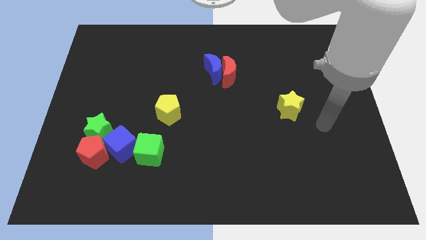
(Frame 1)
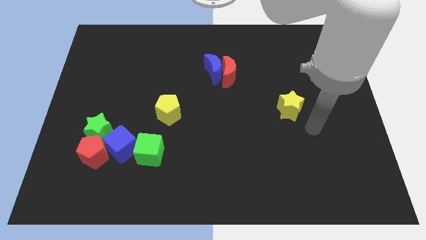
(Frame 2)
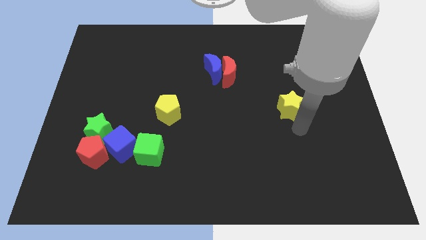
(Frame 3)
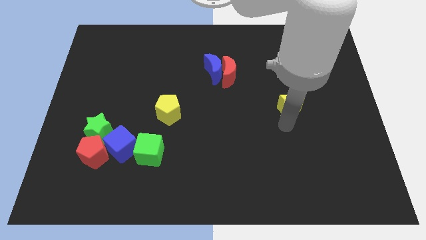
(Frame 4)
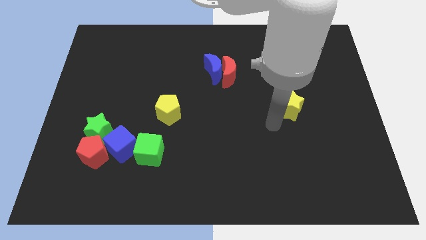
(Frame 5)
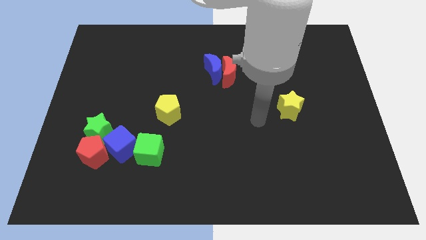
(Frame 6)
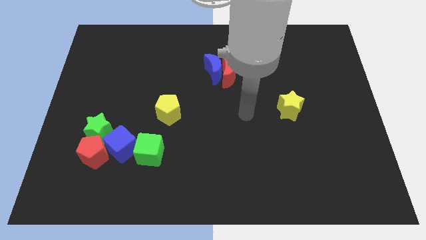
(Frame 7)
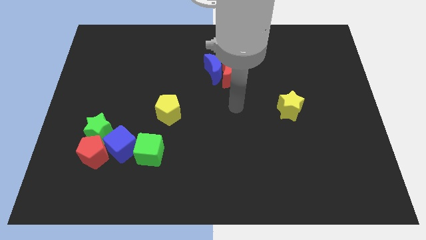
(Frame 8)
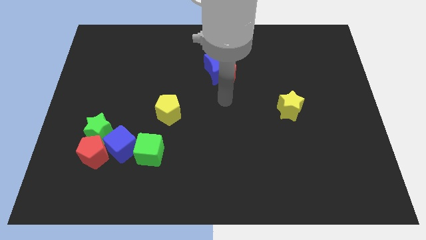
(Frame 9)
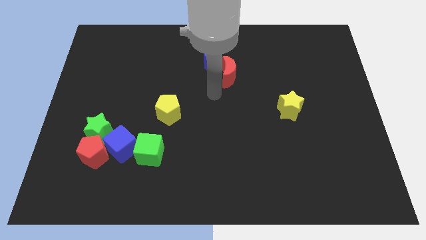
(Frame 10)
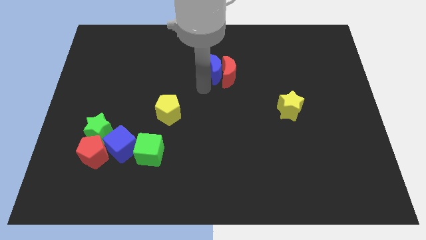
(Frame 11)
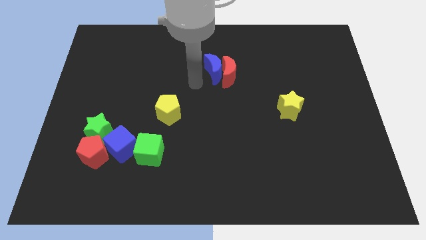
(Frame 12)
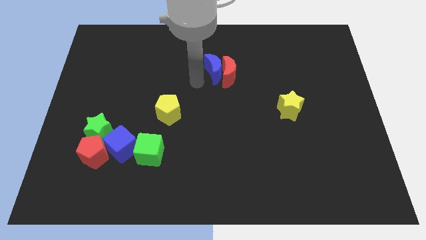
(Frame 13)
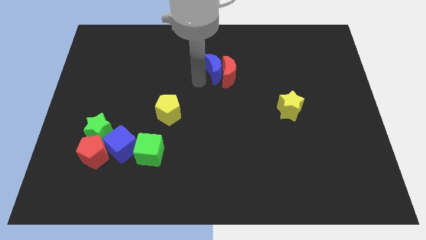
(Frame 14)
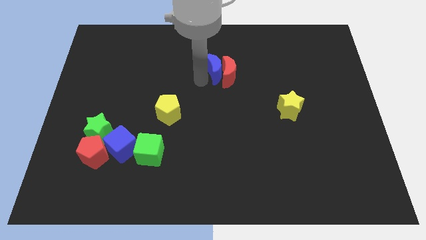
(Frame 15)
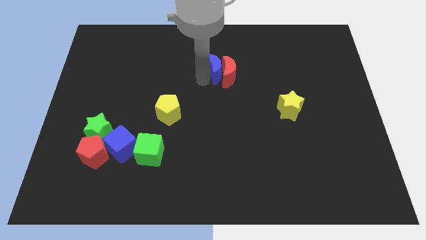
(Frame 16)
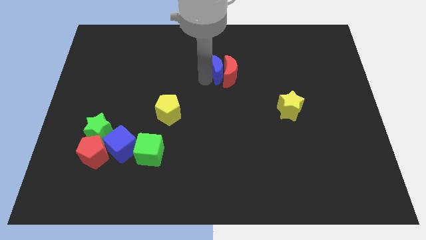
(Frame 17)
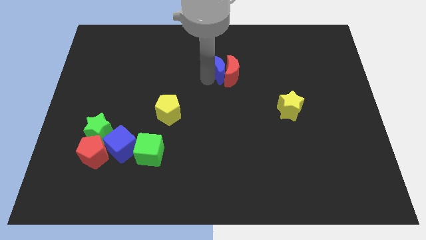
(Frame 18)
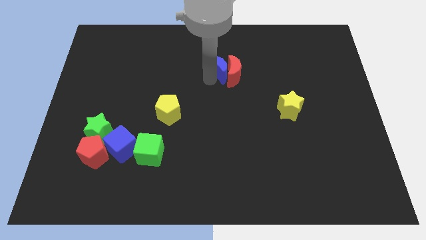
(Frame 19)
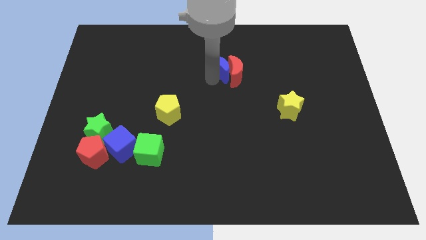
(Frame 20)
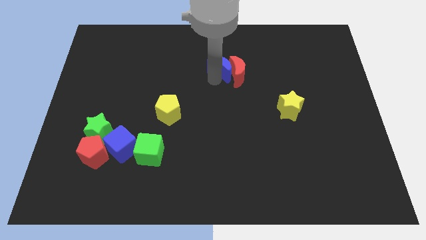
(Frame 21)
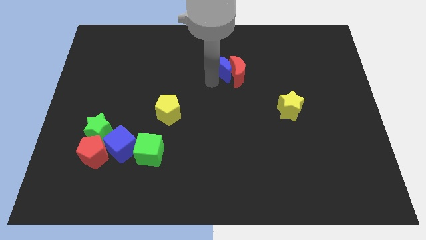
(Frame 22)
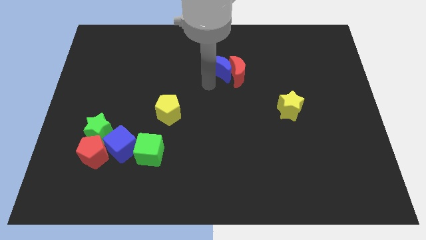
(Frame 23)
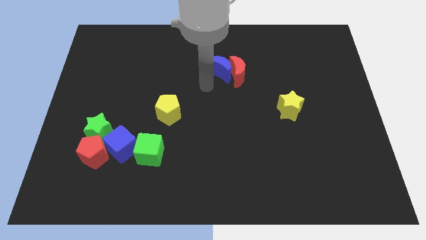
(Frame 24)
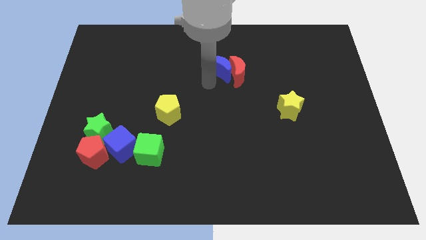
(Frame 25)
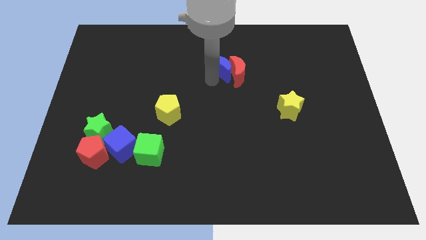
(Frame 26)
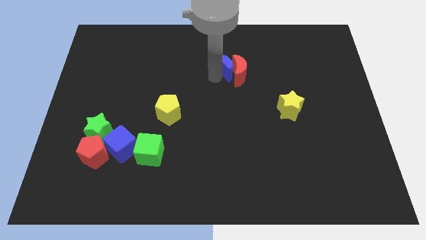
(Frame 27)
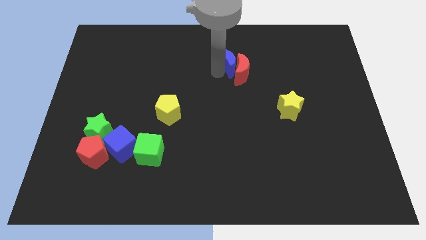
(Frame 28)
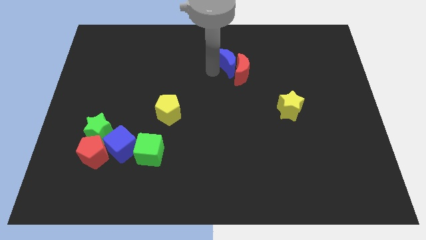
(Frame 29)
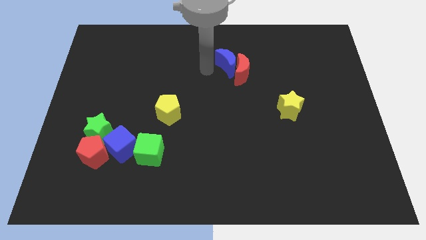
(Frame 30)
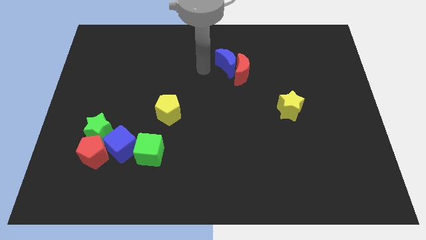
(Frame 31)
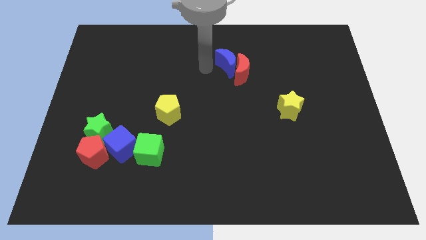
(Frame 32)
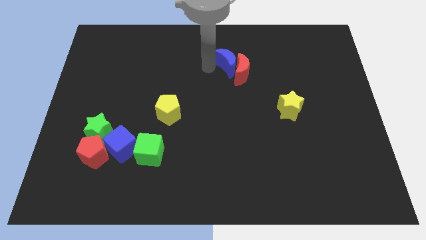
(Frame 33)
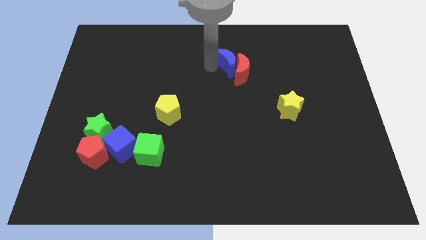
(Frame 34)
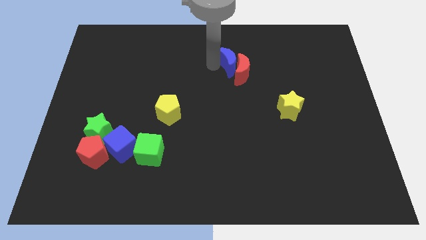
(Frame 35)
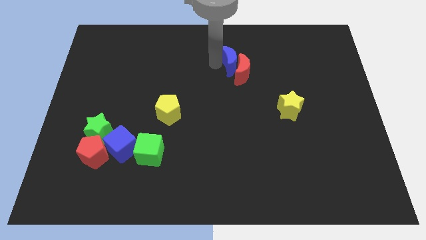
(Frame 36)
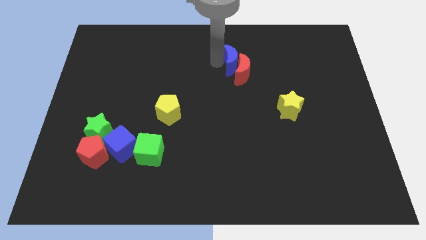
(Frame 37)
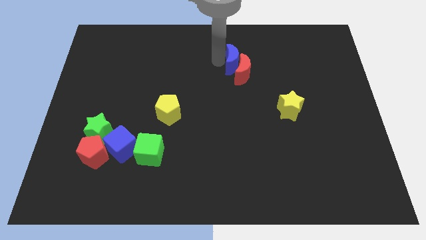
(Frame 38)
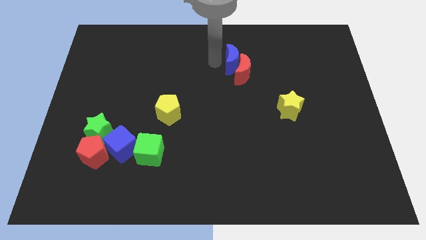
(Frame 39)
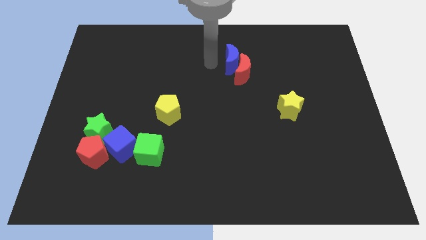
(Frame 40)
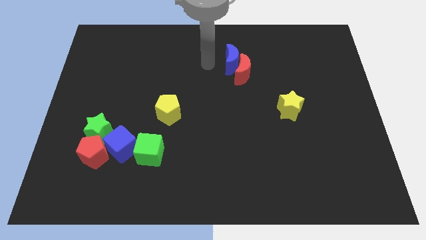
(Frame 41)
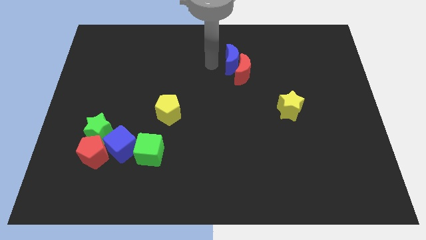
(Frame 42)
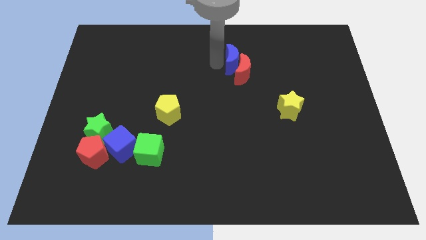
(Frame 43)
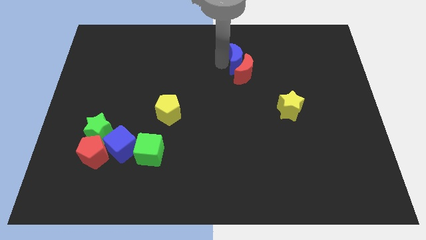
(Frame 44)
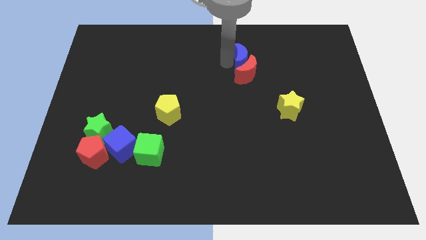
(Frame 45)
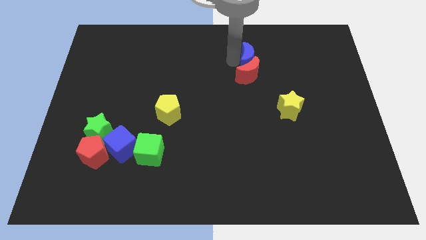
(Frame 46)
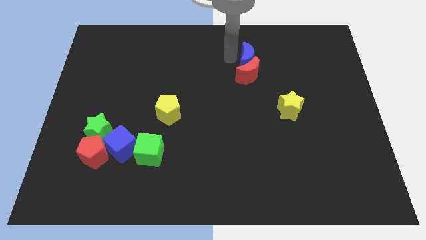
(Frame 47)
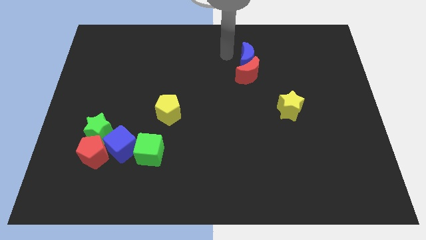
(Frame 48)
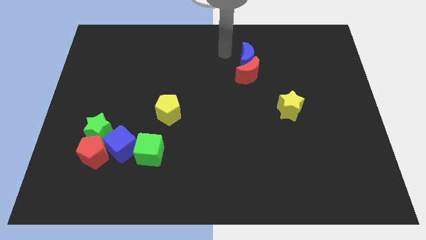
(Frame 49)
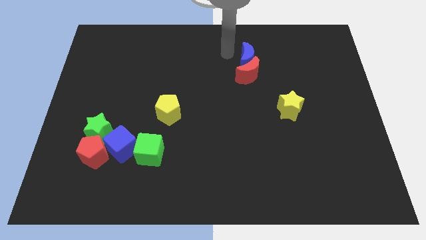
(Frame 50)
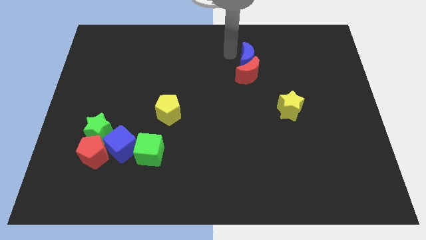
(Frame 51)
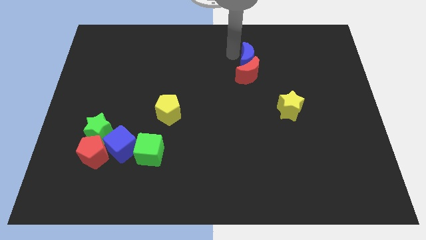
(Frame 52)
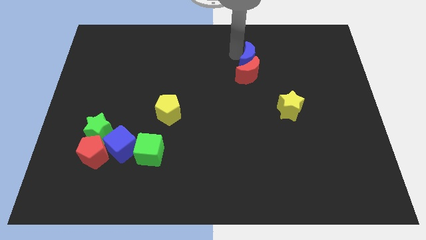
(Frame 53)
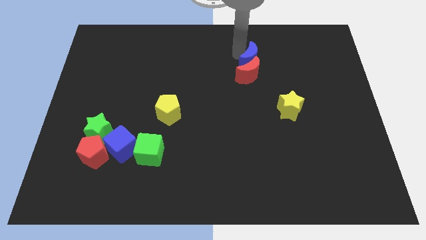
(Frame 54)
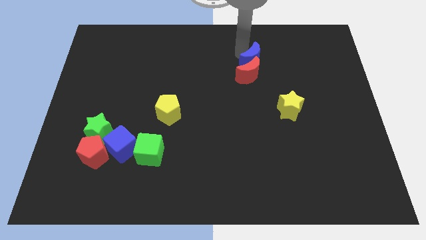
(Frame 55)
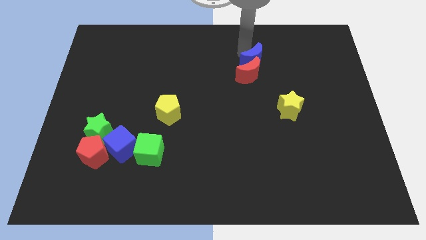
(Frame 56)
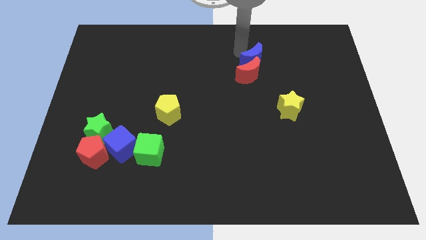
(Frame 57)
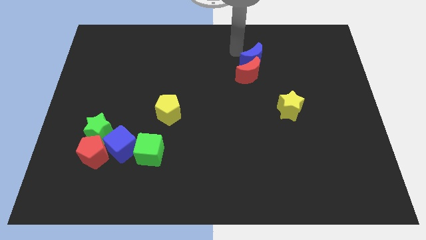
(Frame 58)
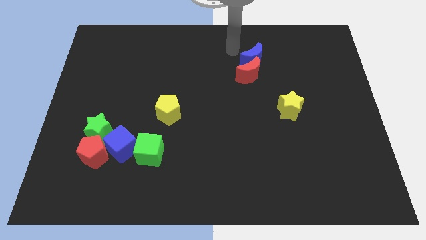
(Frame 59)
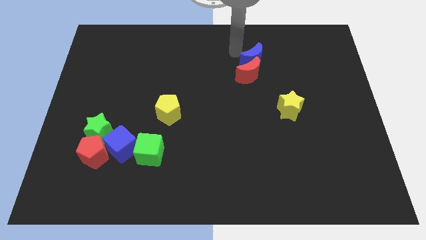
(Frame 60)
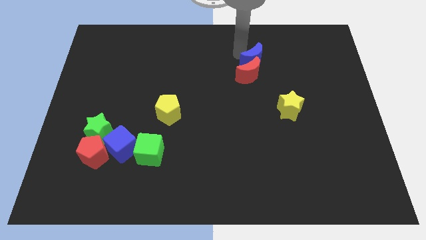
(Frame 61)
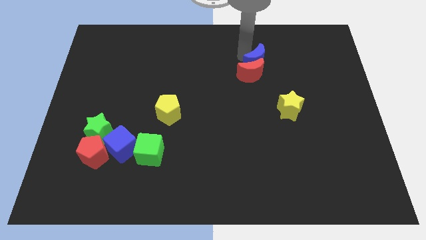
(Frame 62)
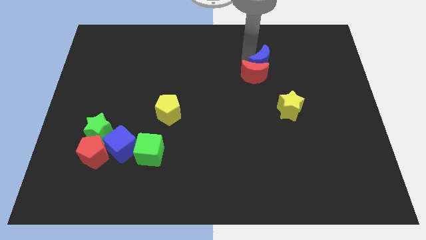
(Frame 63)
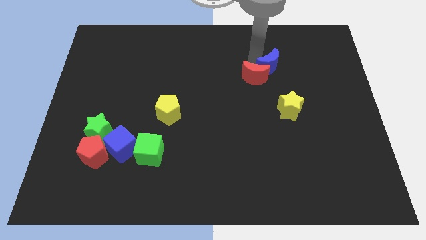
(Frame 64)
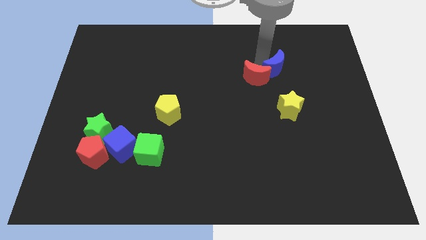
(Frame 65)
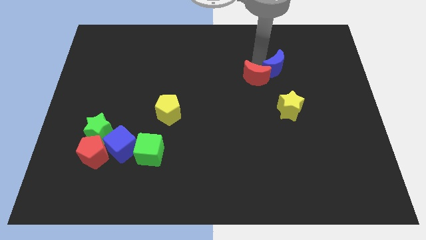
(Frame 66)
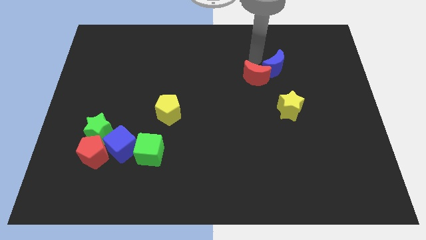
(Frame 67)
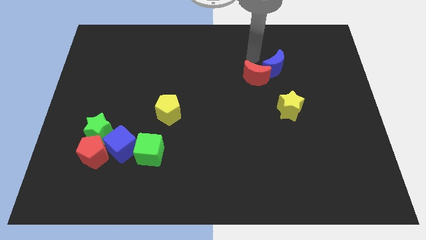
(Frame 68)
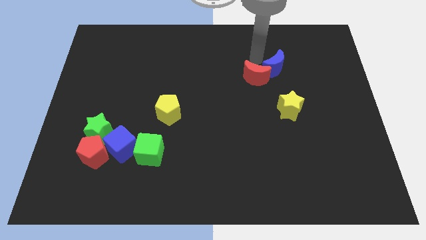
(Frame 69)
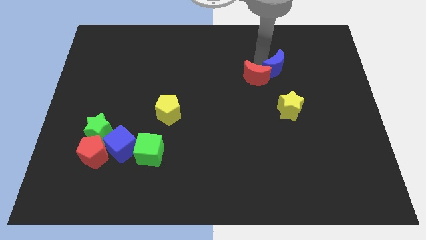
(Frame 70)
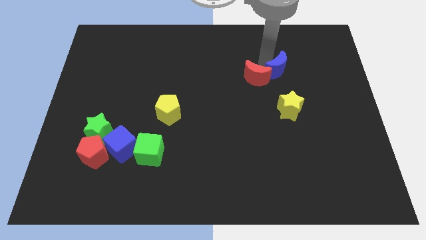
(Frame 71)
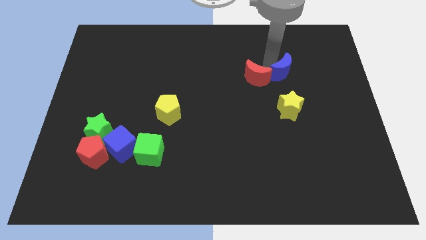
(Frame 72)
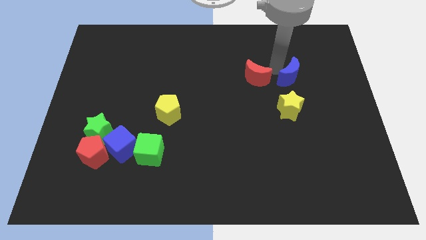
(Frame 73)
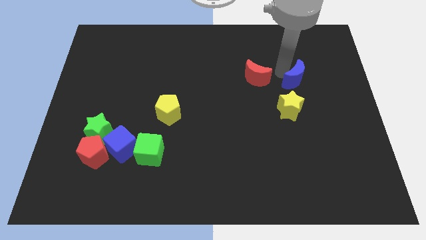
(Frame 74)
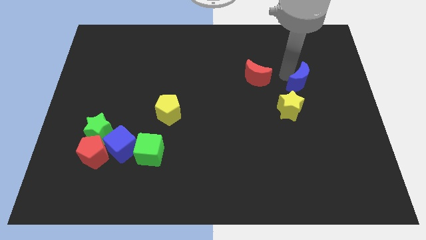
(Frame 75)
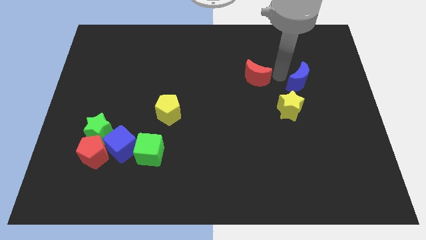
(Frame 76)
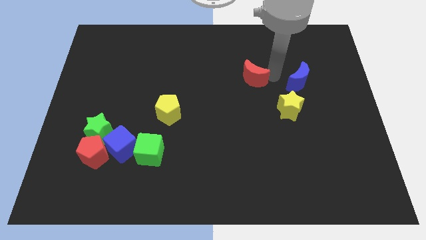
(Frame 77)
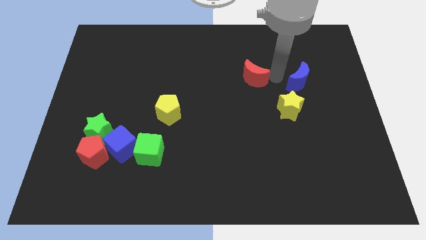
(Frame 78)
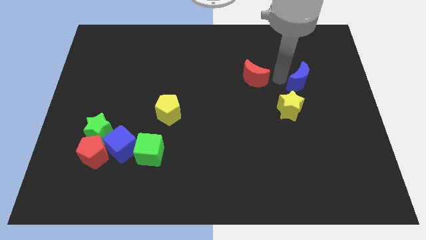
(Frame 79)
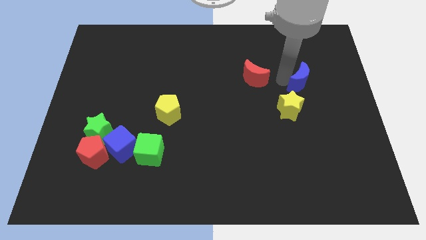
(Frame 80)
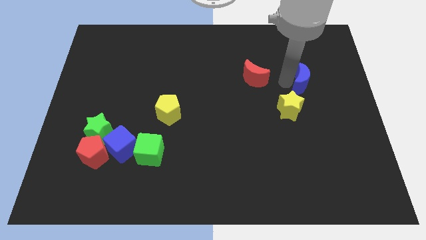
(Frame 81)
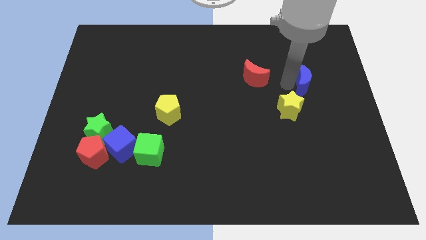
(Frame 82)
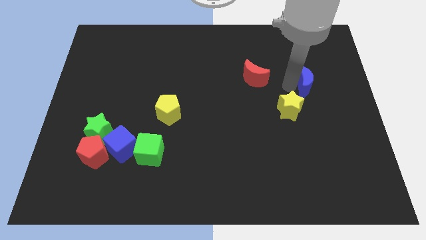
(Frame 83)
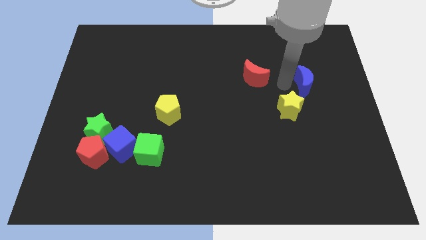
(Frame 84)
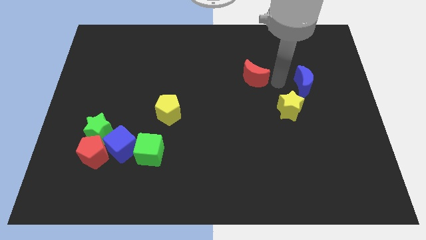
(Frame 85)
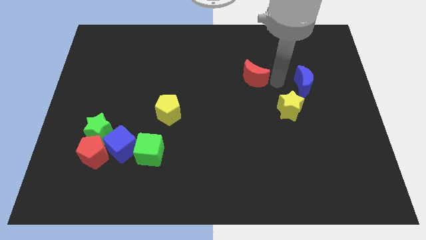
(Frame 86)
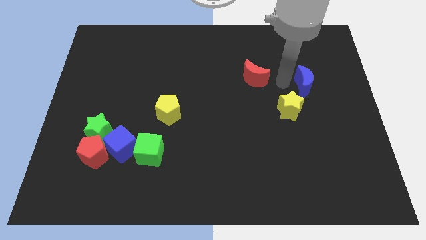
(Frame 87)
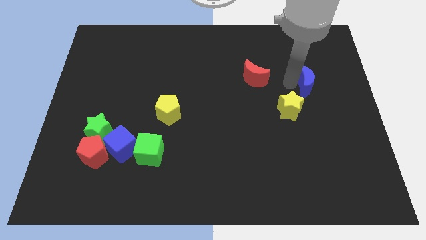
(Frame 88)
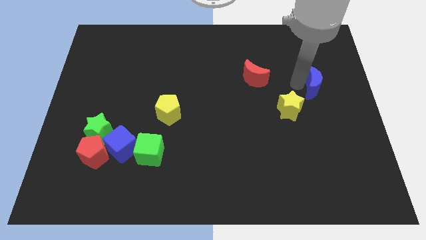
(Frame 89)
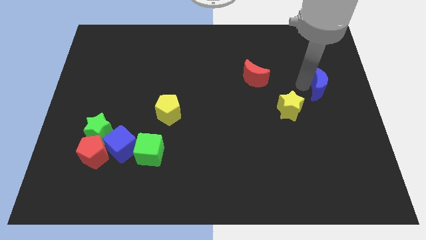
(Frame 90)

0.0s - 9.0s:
slide the blue moon to the right side
